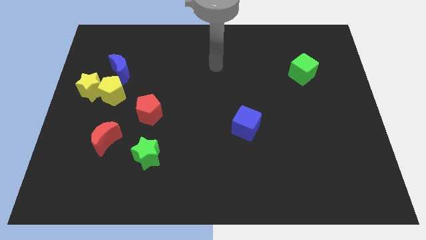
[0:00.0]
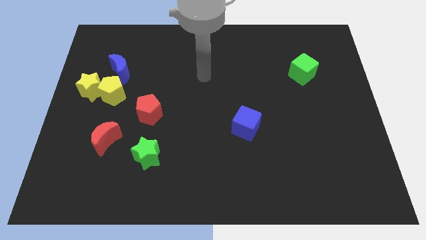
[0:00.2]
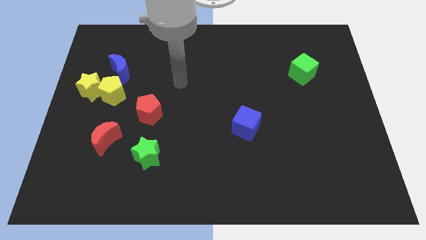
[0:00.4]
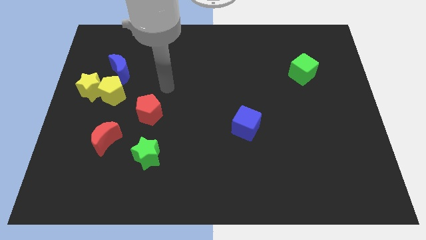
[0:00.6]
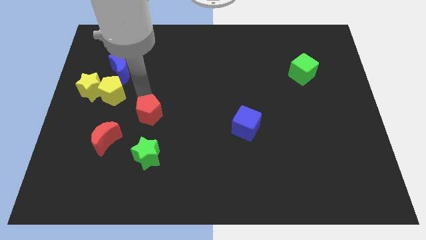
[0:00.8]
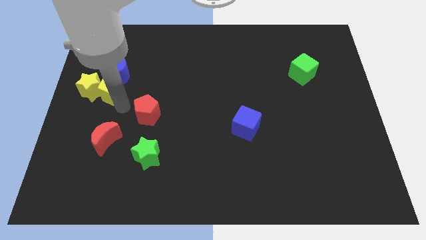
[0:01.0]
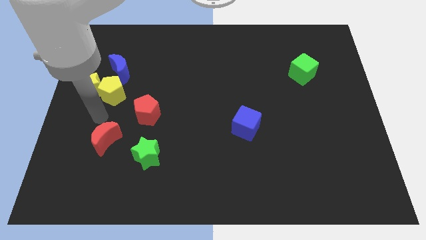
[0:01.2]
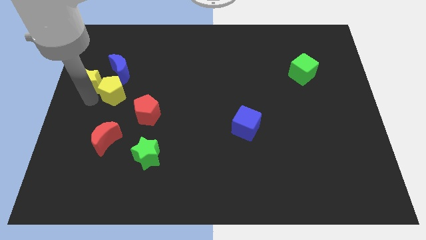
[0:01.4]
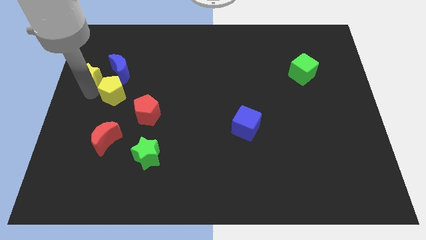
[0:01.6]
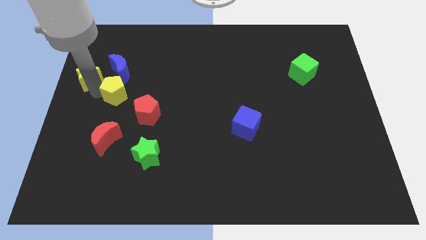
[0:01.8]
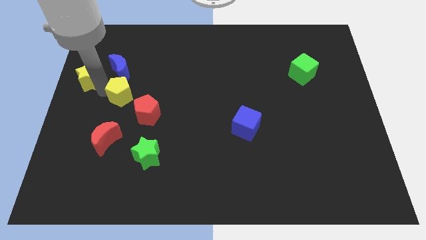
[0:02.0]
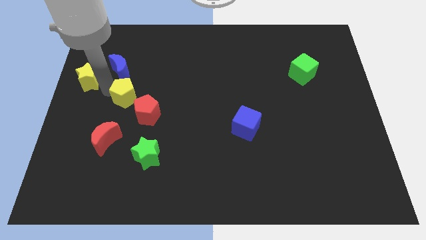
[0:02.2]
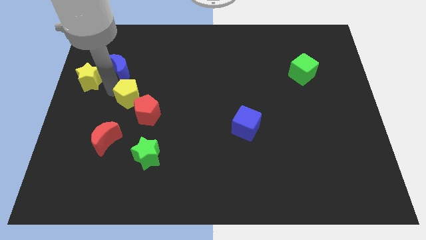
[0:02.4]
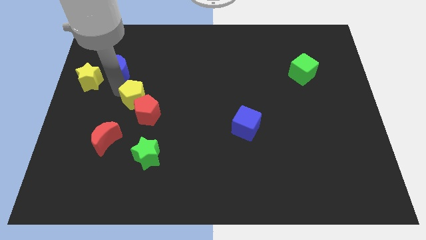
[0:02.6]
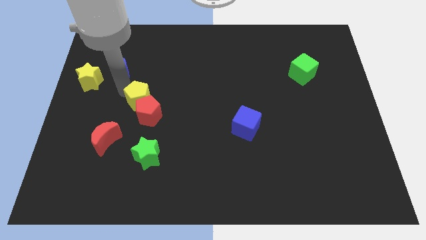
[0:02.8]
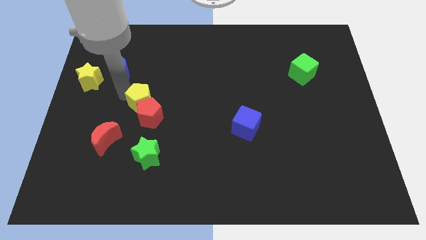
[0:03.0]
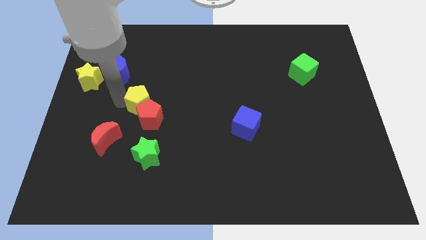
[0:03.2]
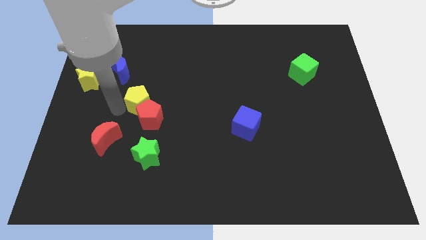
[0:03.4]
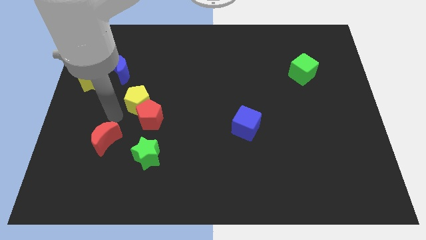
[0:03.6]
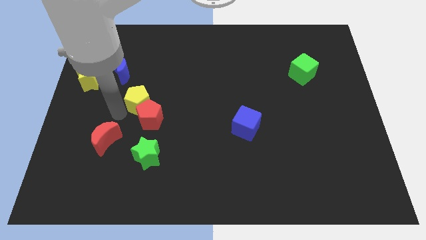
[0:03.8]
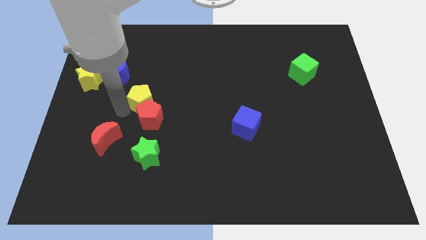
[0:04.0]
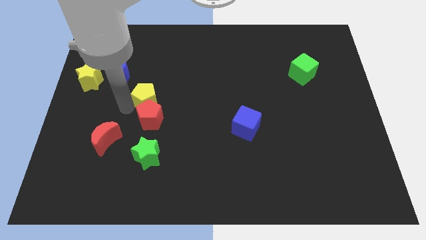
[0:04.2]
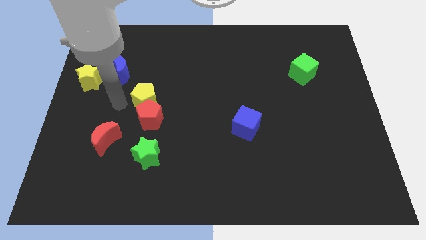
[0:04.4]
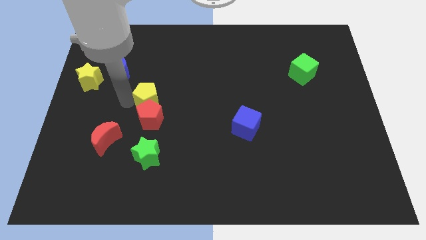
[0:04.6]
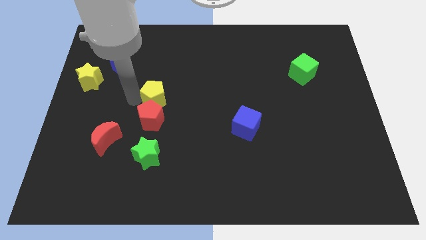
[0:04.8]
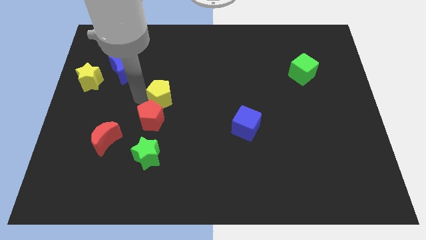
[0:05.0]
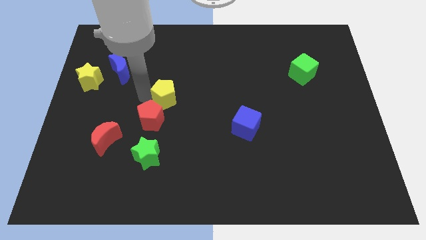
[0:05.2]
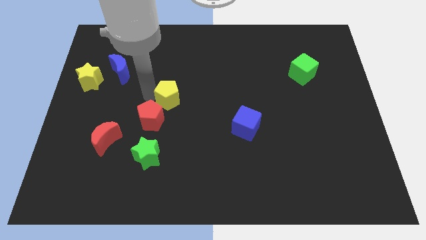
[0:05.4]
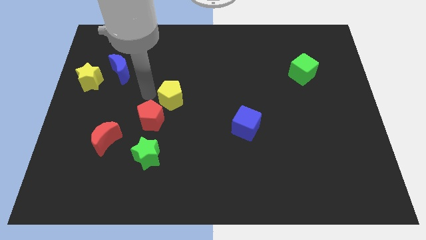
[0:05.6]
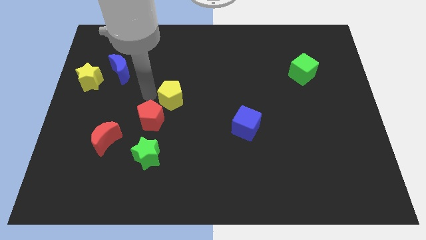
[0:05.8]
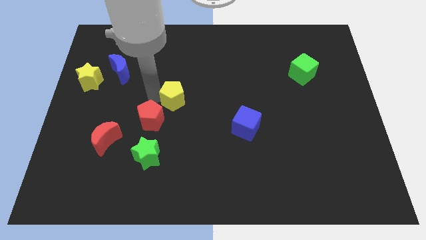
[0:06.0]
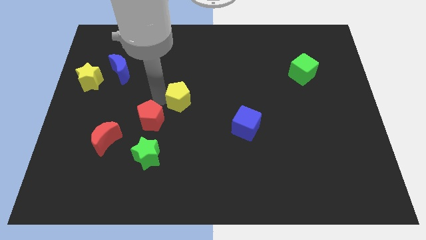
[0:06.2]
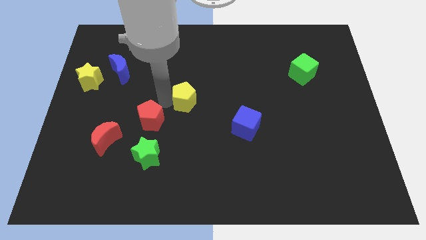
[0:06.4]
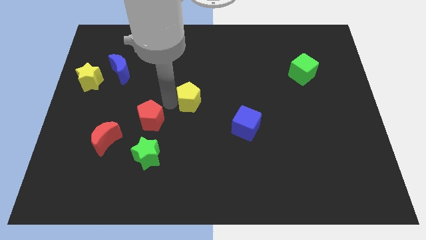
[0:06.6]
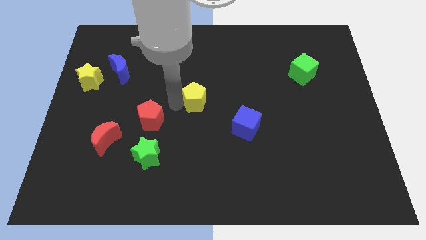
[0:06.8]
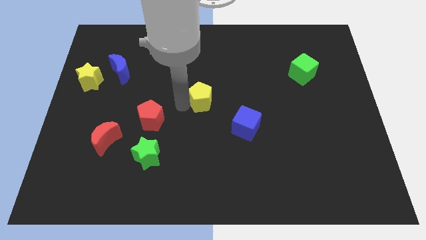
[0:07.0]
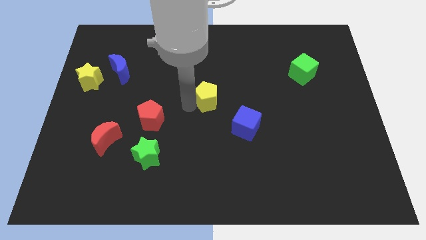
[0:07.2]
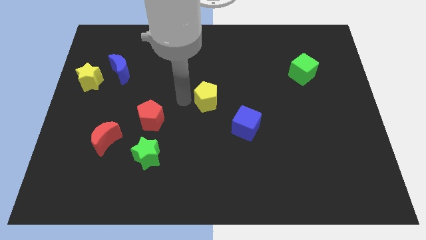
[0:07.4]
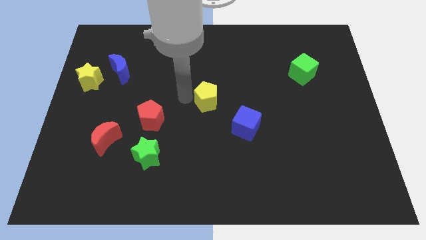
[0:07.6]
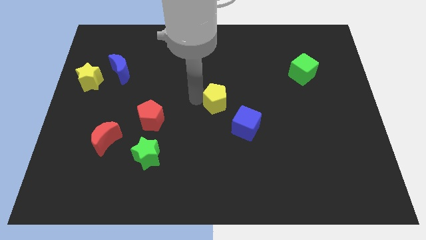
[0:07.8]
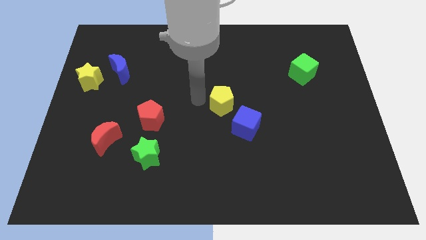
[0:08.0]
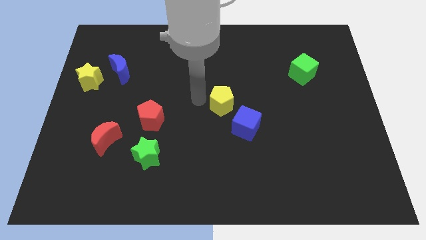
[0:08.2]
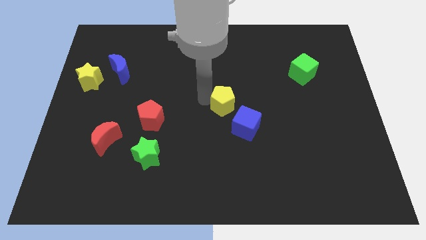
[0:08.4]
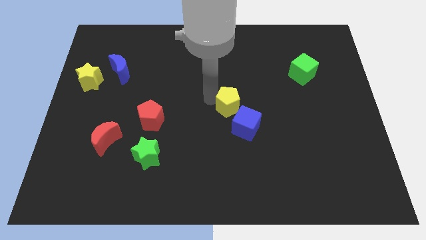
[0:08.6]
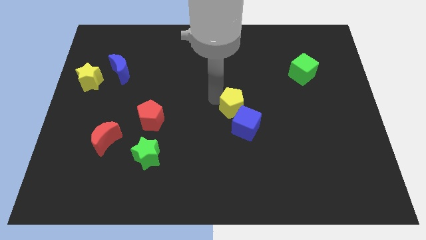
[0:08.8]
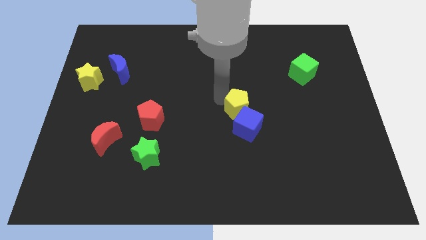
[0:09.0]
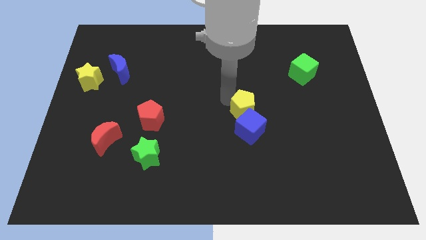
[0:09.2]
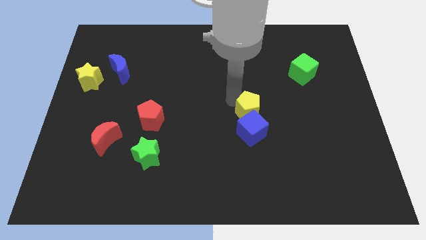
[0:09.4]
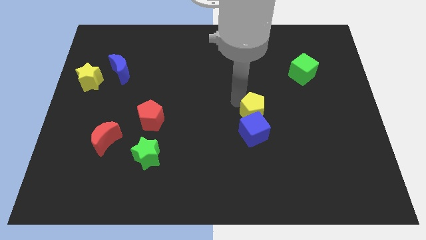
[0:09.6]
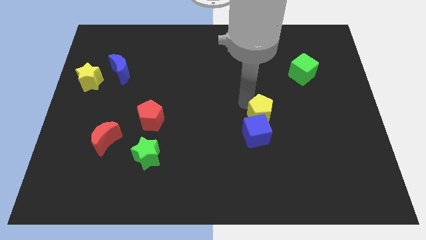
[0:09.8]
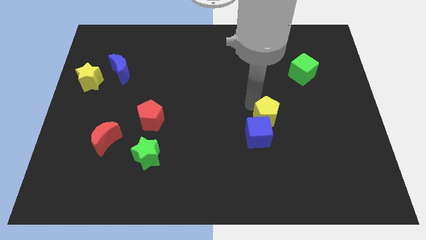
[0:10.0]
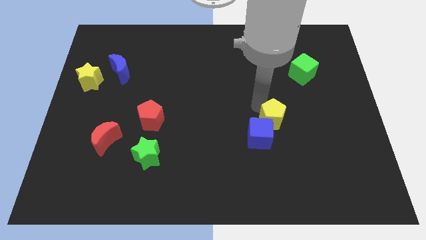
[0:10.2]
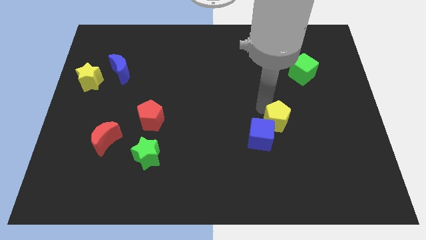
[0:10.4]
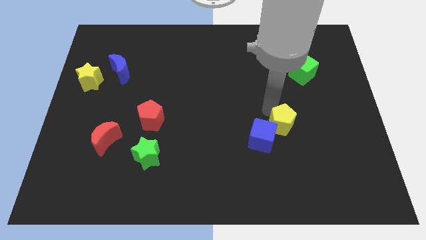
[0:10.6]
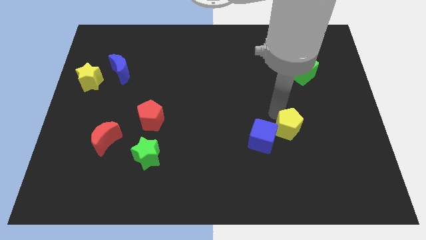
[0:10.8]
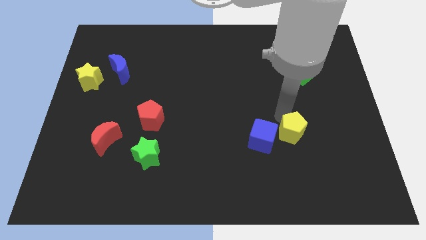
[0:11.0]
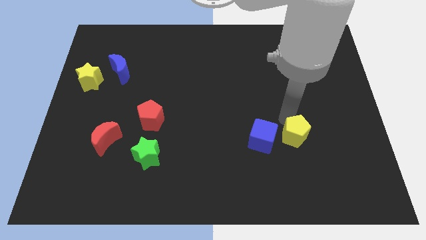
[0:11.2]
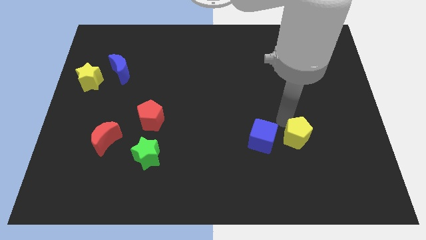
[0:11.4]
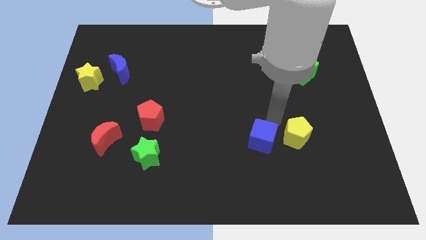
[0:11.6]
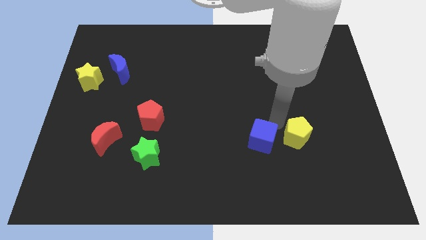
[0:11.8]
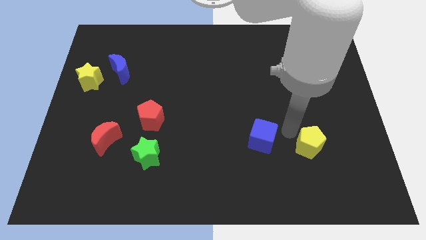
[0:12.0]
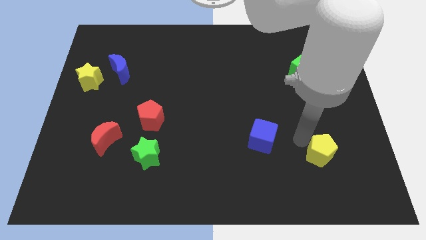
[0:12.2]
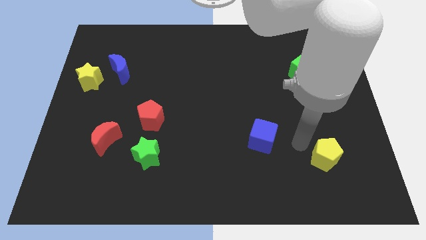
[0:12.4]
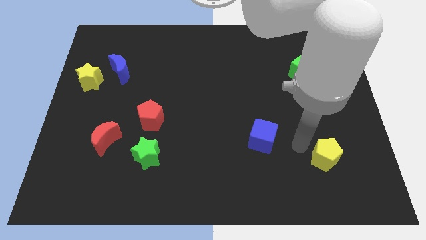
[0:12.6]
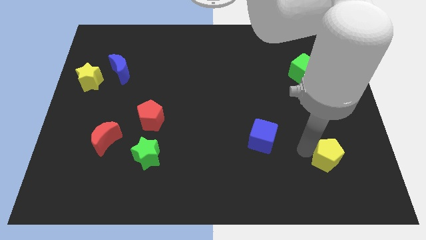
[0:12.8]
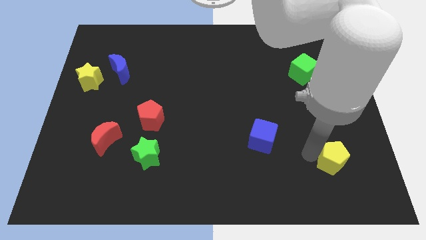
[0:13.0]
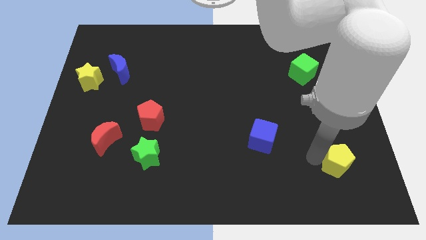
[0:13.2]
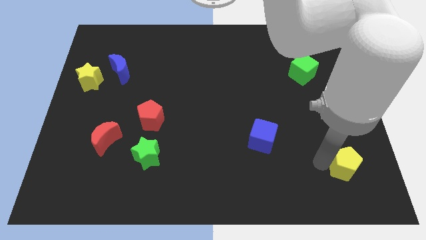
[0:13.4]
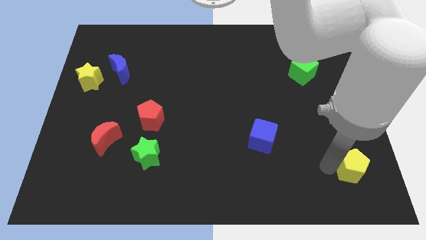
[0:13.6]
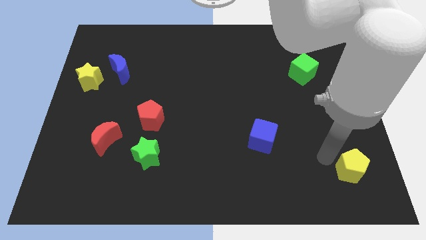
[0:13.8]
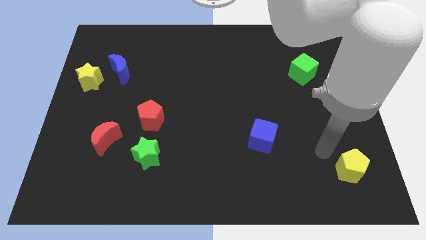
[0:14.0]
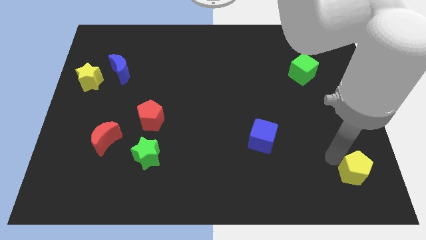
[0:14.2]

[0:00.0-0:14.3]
slide the yellow pentagon to the bottom right

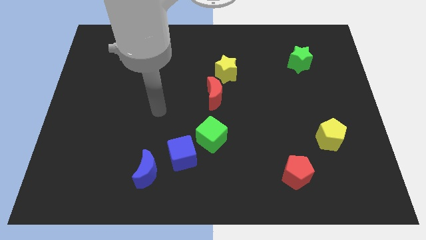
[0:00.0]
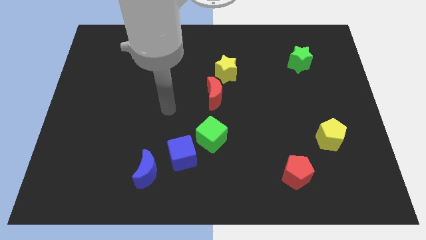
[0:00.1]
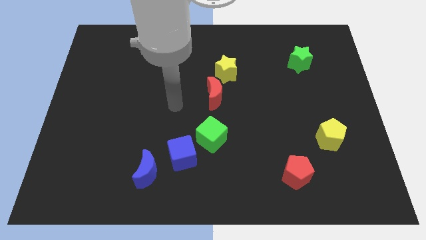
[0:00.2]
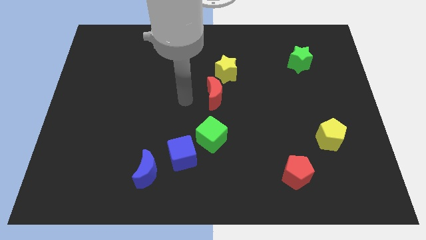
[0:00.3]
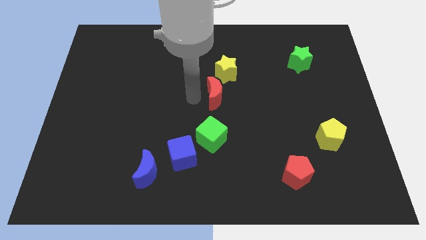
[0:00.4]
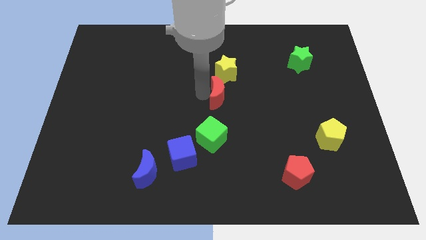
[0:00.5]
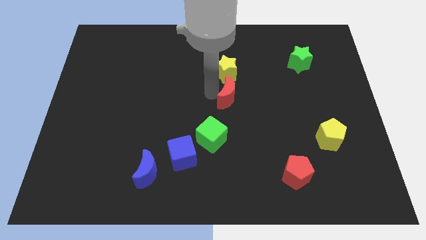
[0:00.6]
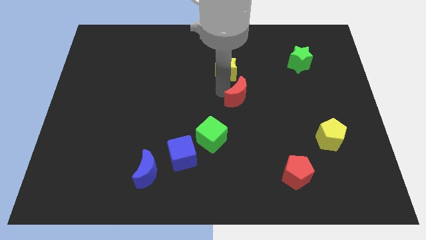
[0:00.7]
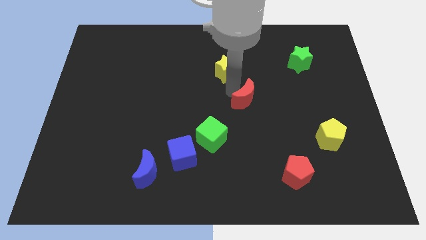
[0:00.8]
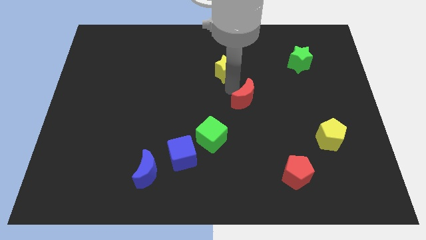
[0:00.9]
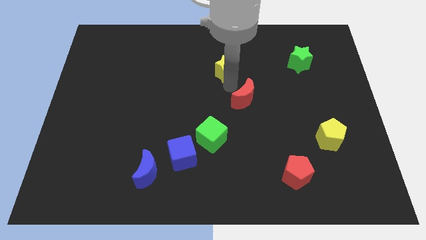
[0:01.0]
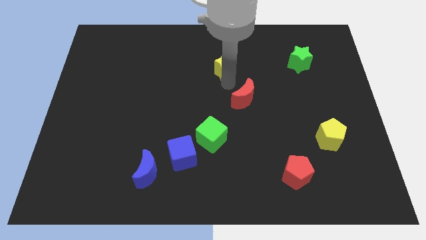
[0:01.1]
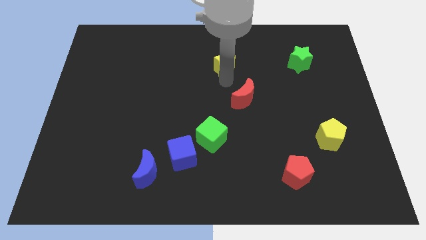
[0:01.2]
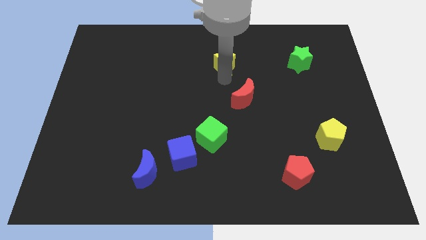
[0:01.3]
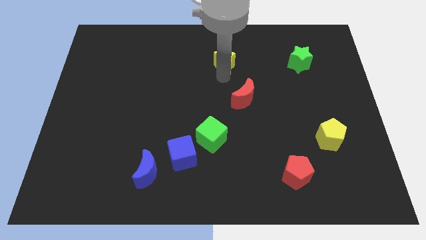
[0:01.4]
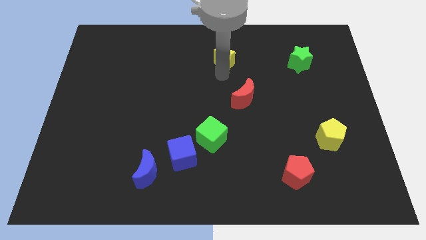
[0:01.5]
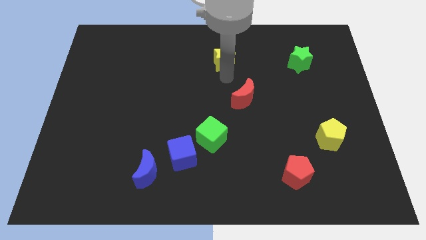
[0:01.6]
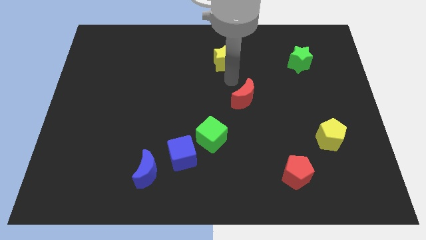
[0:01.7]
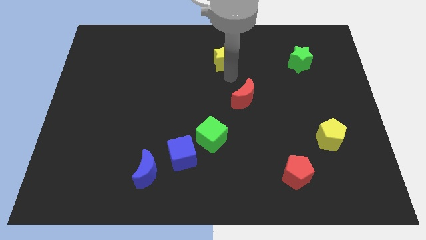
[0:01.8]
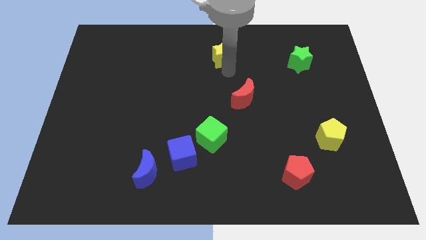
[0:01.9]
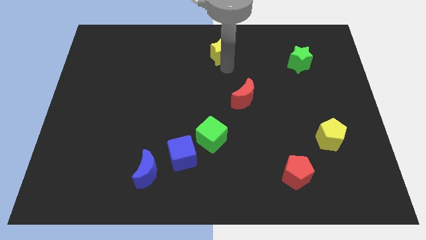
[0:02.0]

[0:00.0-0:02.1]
move the yellow star to the top side
